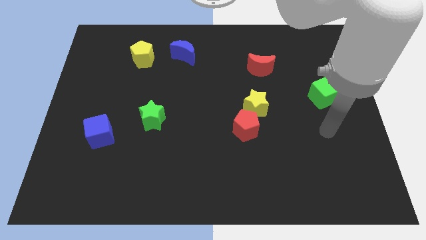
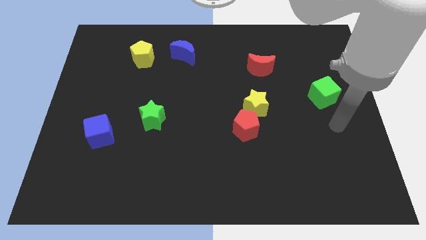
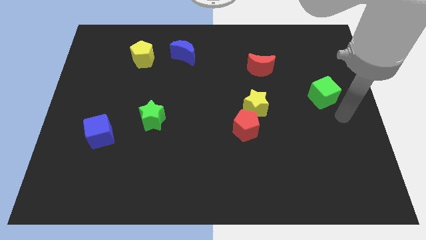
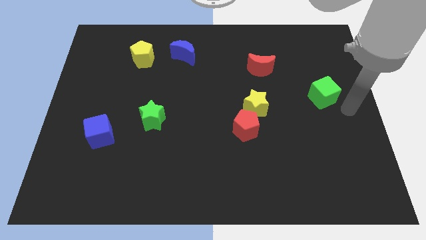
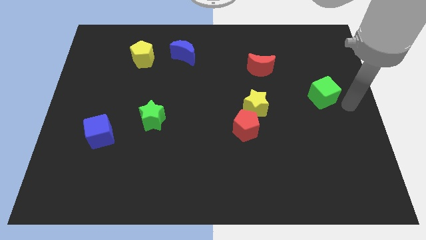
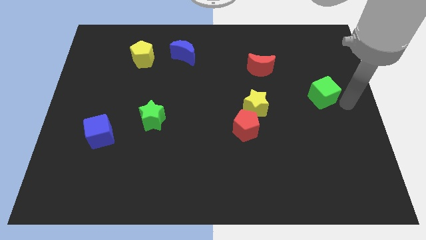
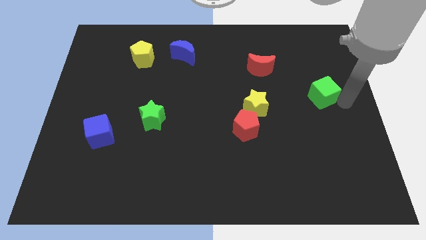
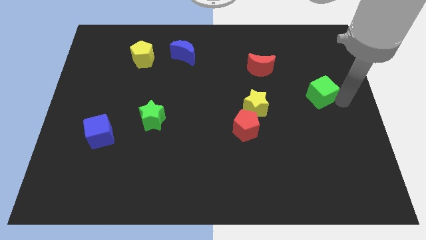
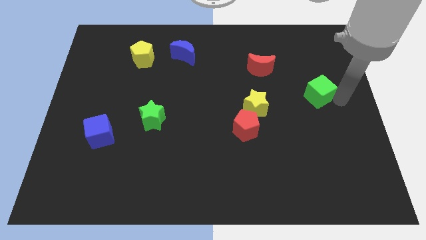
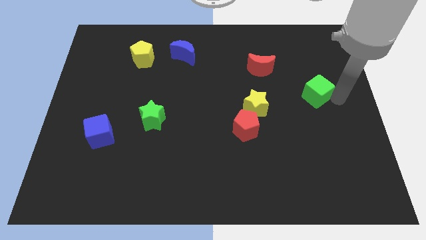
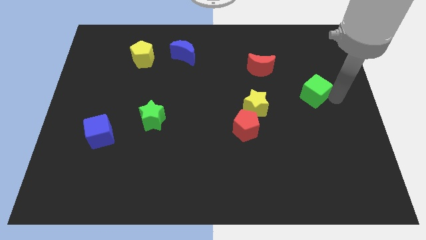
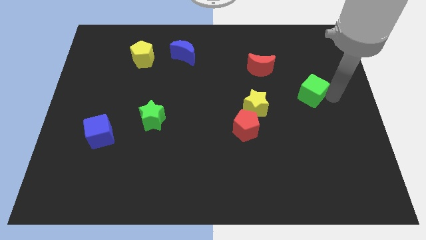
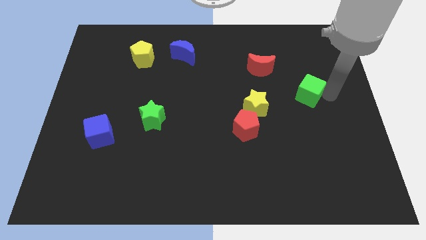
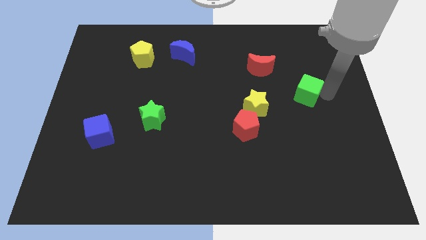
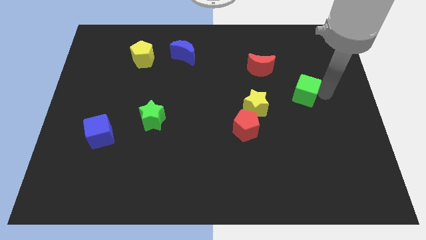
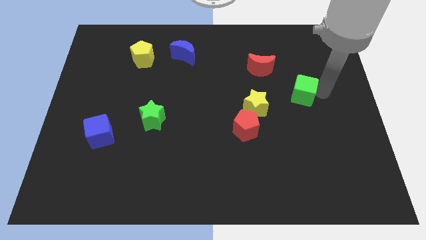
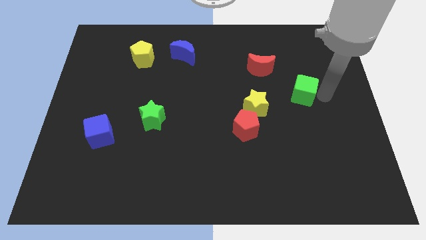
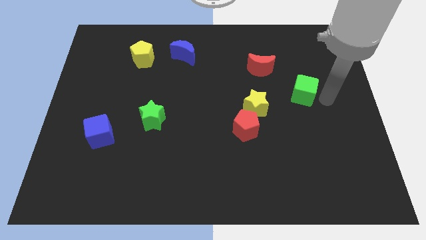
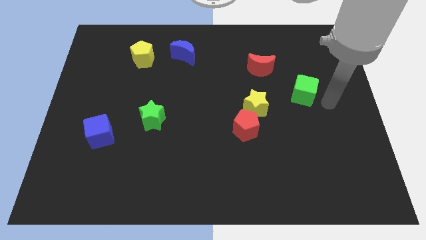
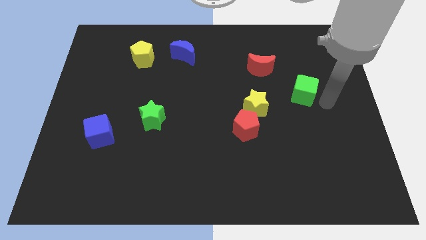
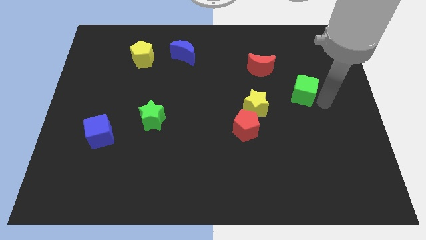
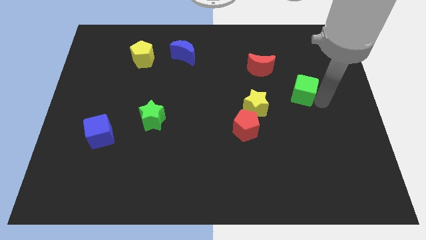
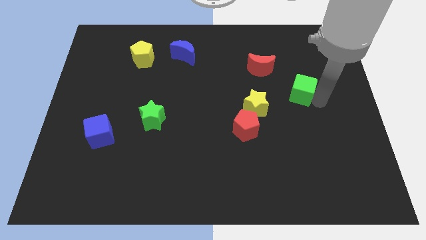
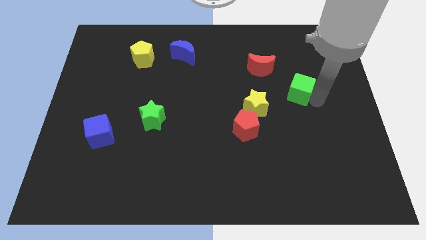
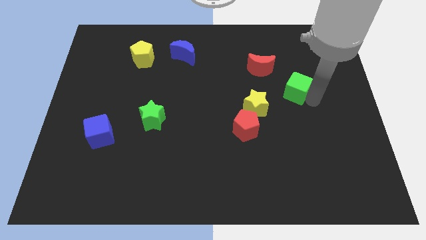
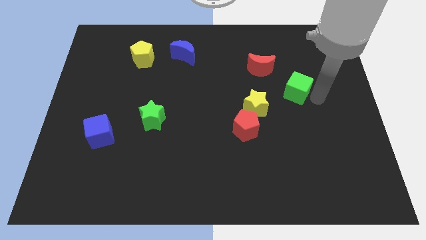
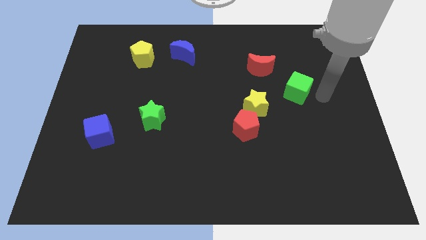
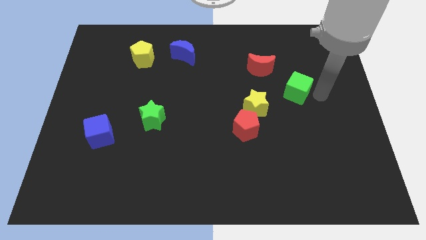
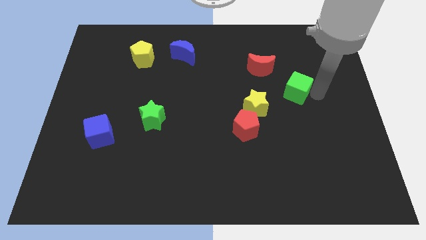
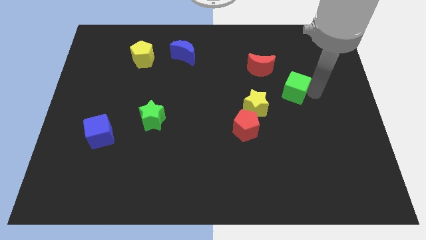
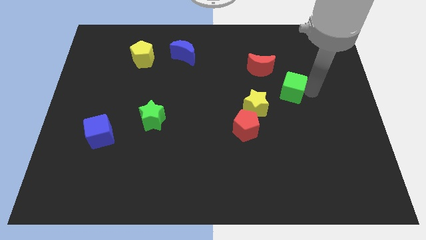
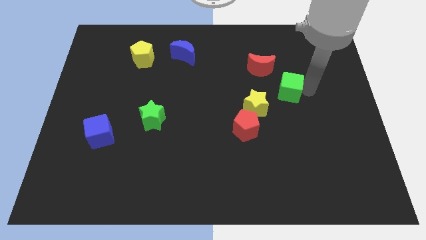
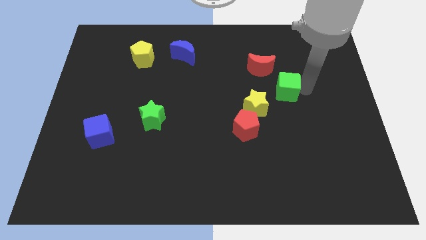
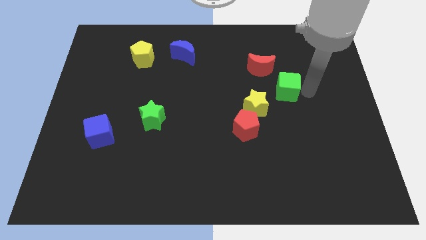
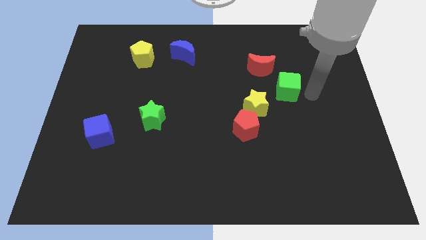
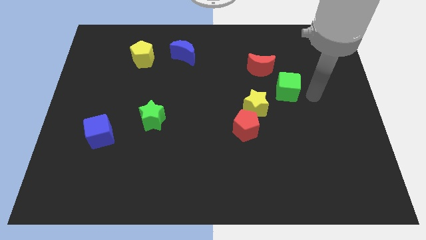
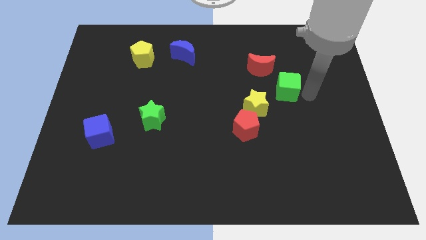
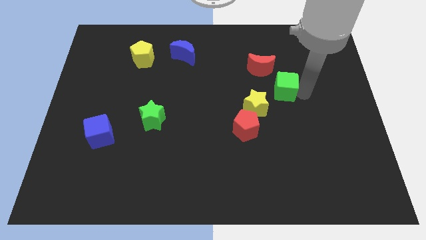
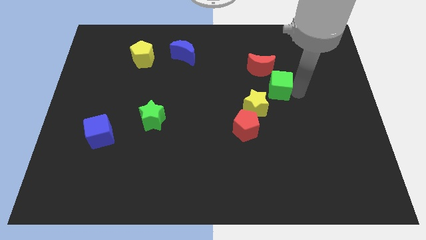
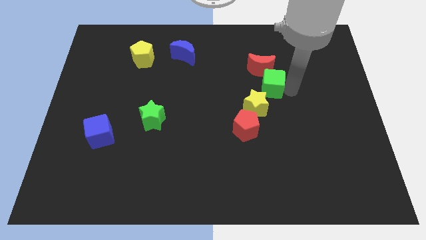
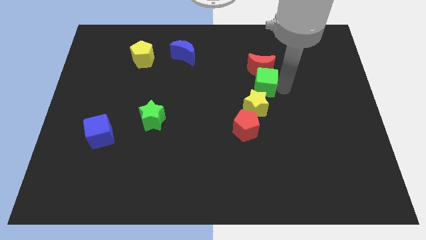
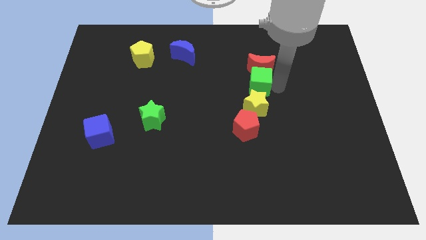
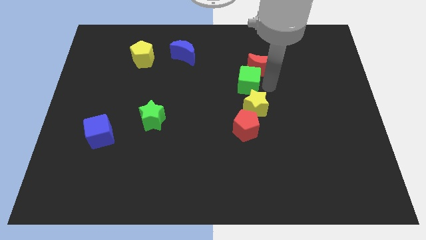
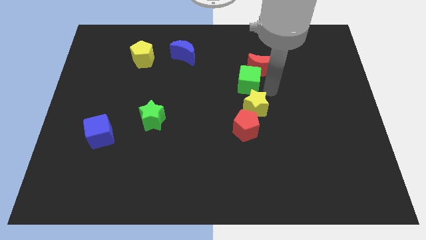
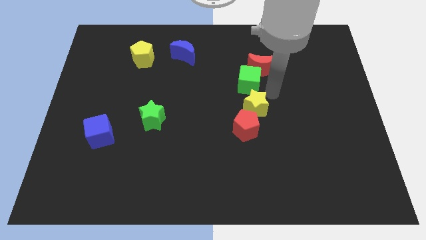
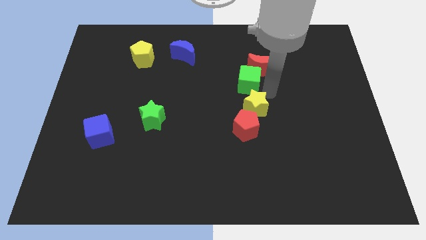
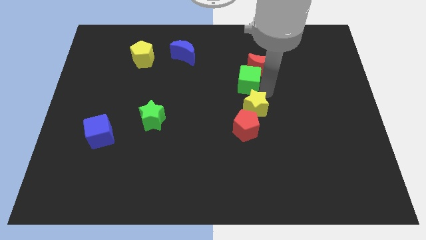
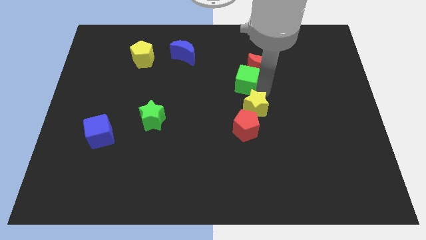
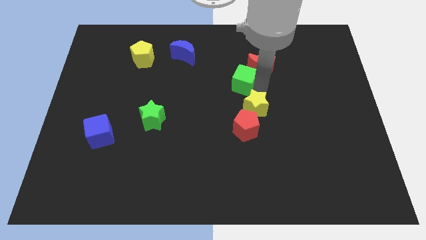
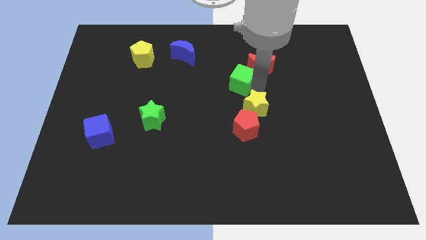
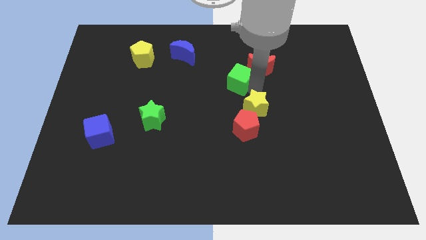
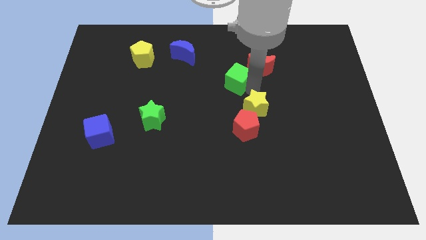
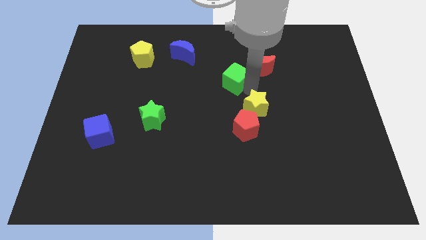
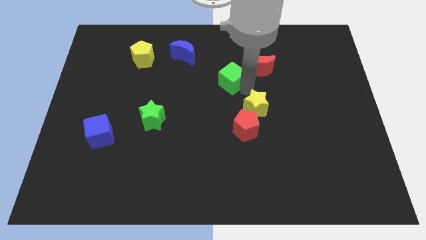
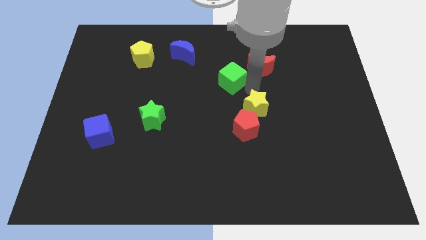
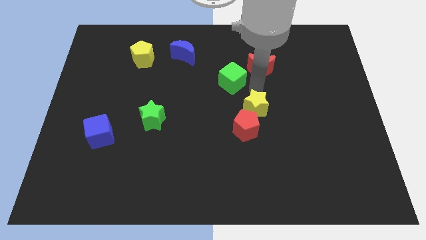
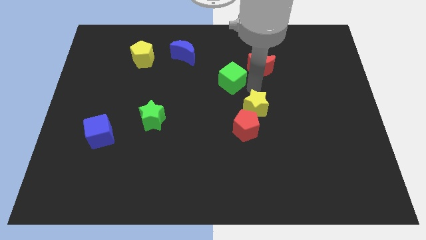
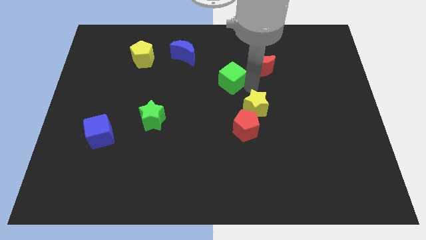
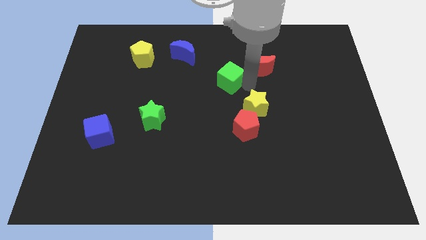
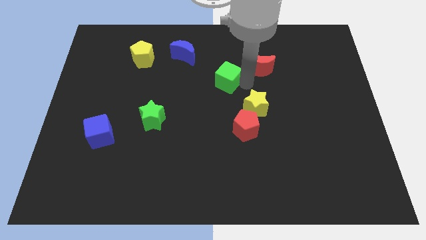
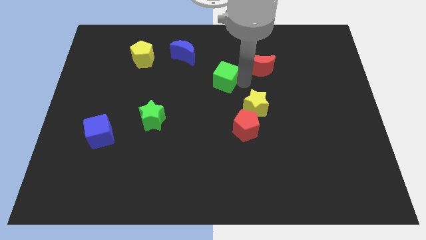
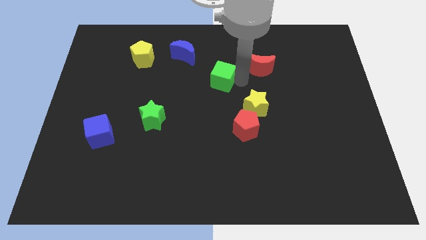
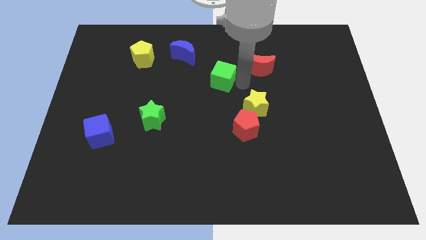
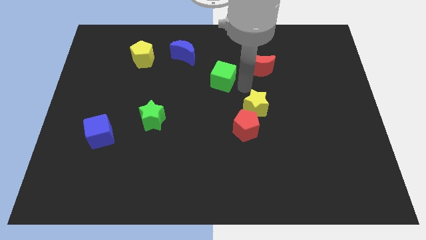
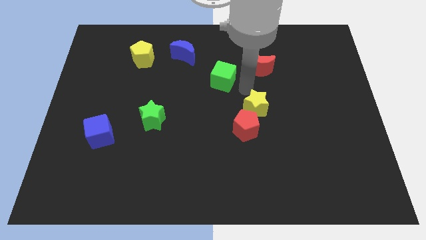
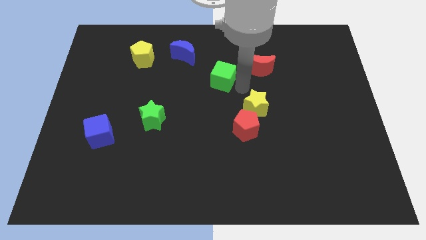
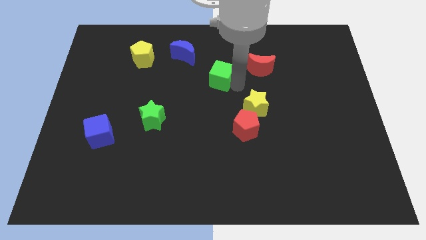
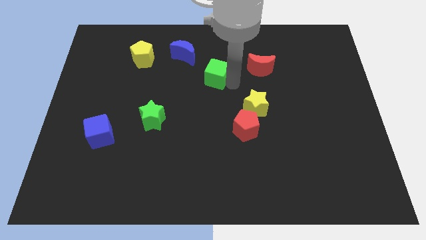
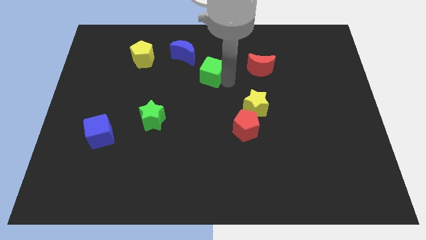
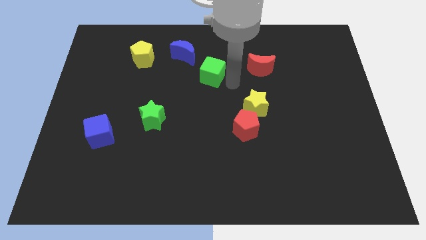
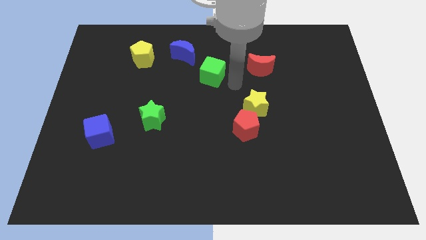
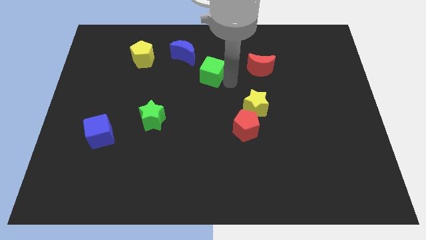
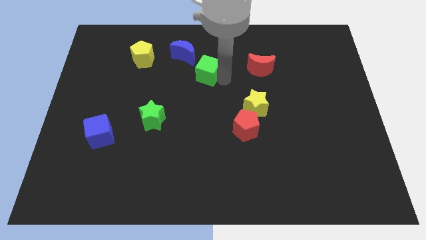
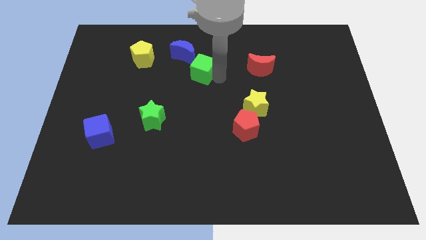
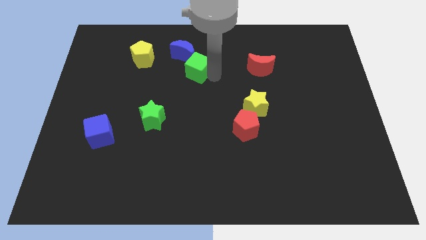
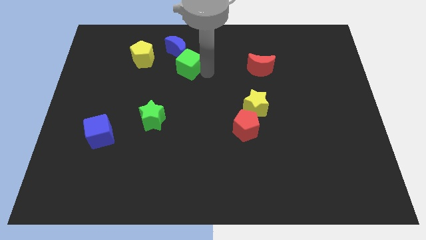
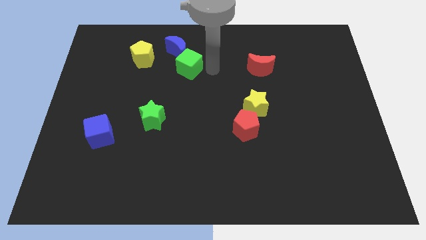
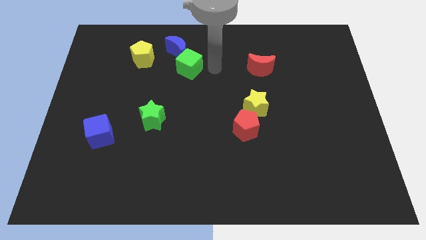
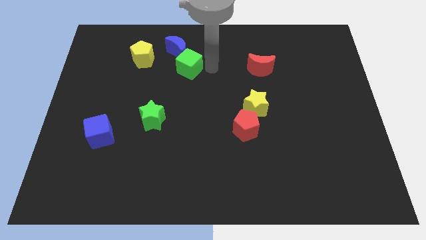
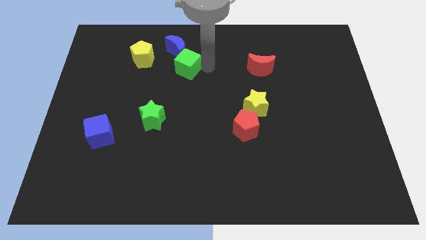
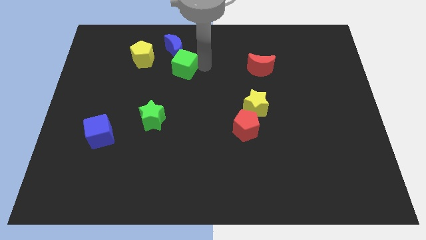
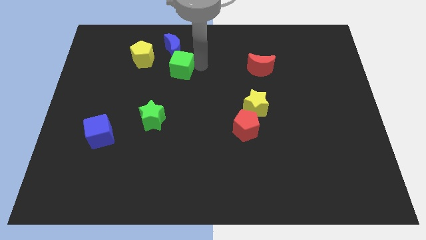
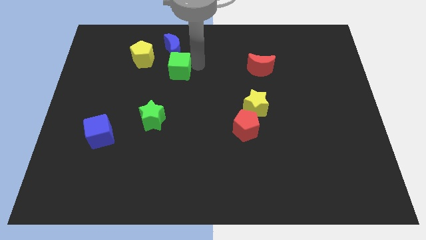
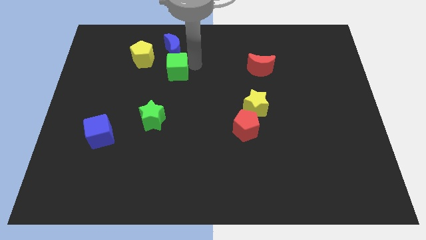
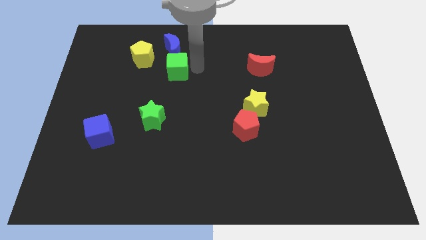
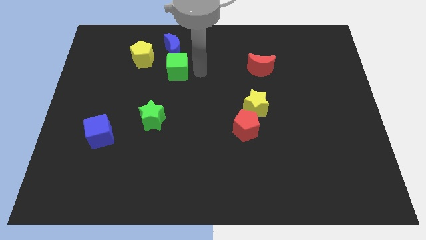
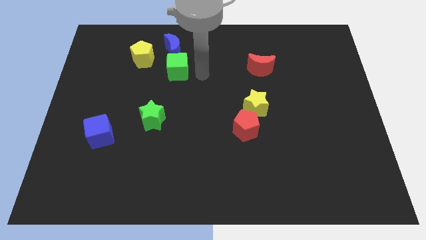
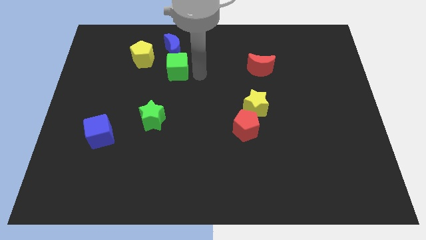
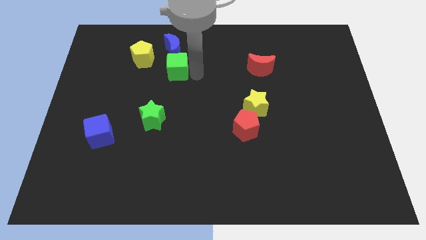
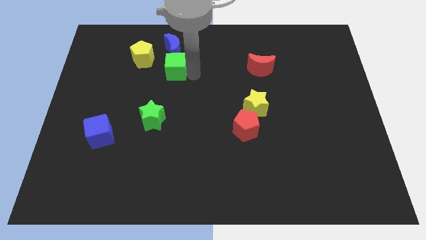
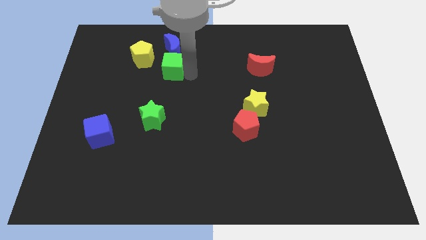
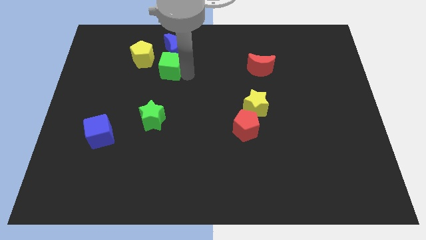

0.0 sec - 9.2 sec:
slide the green cube diagonally down and to the left of the blue moon
